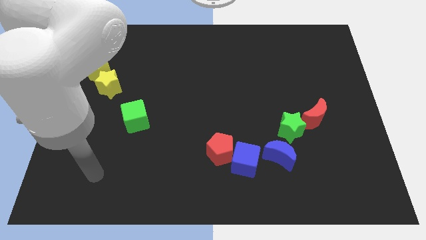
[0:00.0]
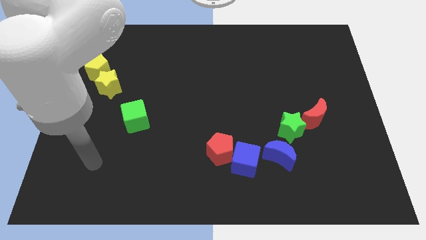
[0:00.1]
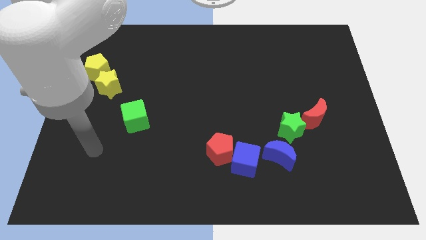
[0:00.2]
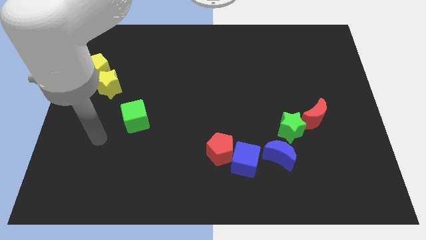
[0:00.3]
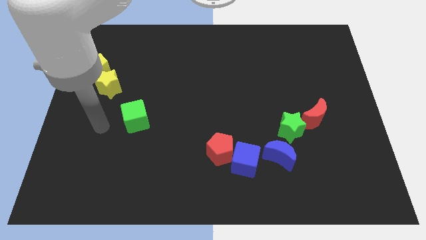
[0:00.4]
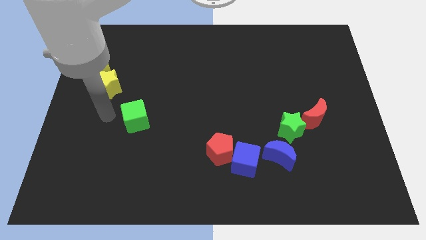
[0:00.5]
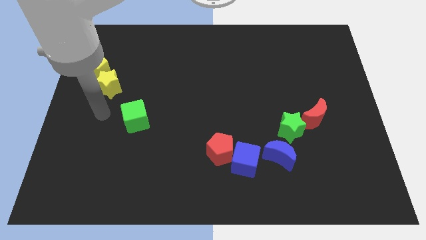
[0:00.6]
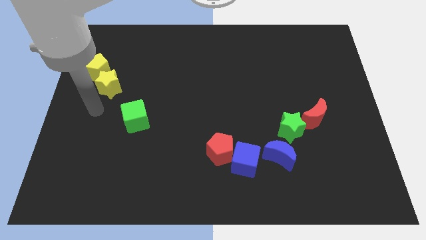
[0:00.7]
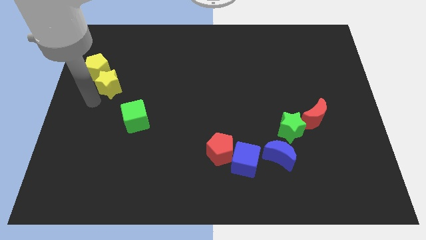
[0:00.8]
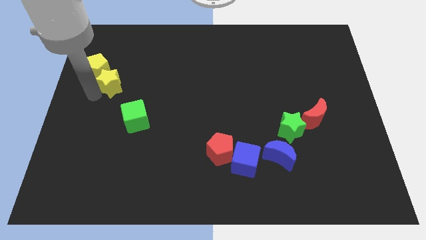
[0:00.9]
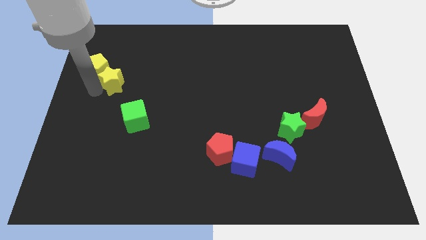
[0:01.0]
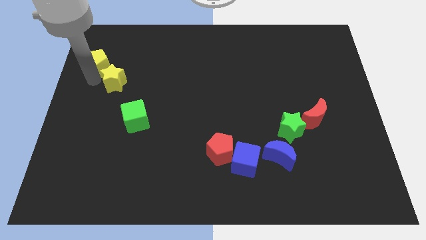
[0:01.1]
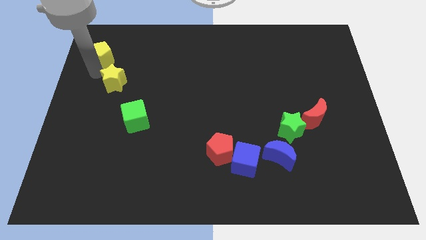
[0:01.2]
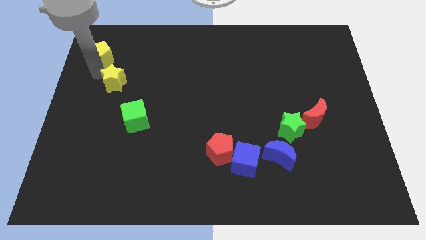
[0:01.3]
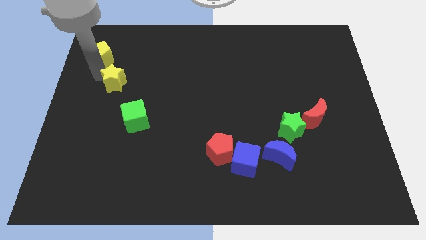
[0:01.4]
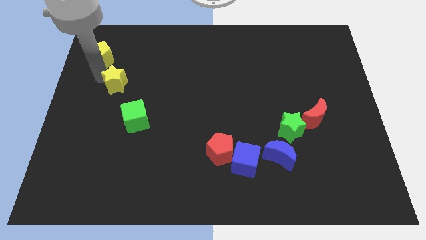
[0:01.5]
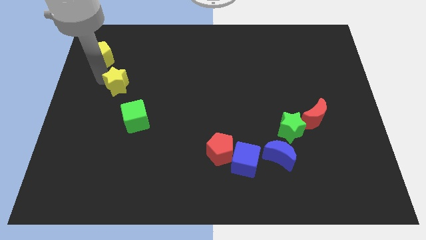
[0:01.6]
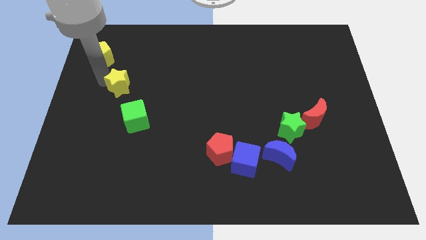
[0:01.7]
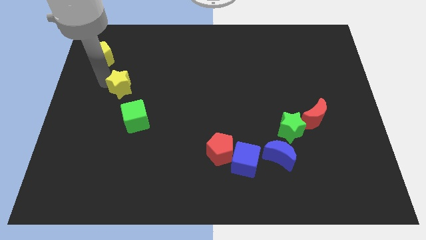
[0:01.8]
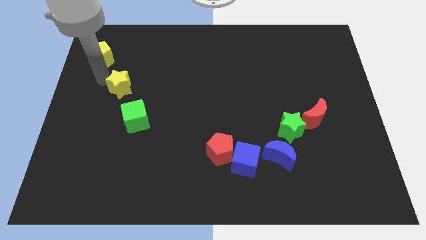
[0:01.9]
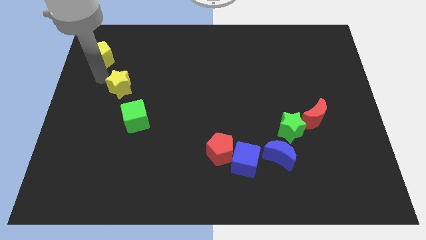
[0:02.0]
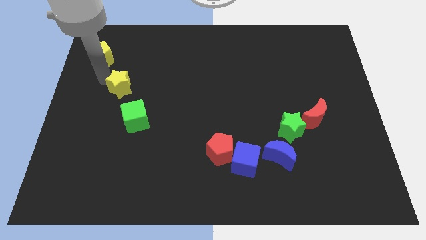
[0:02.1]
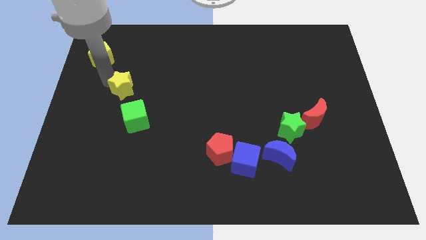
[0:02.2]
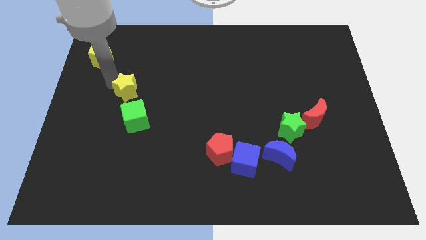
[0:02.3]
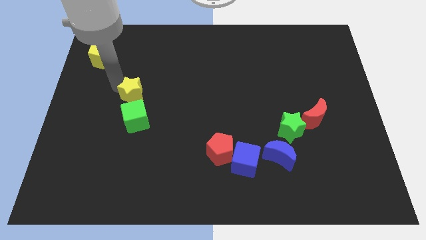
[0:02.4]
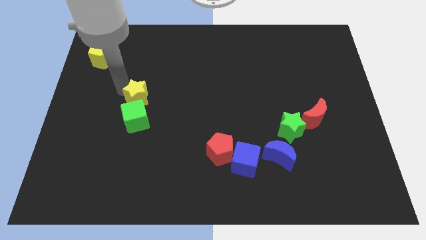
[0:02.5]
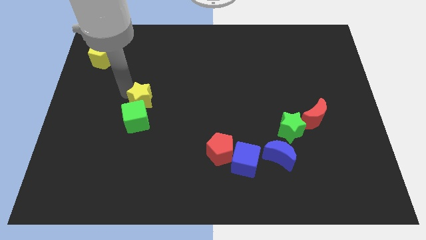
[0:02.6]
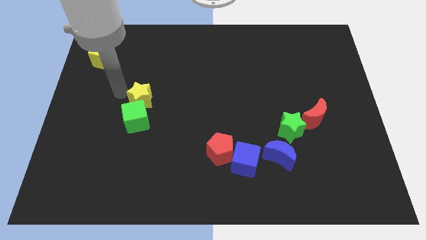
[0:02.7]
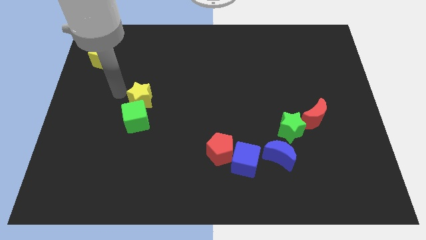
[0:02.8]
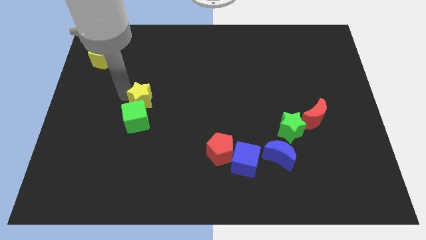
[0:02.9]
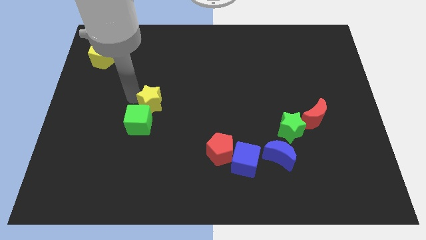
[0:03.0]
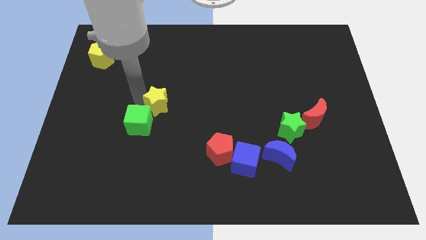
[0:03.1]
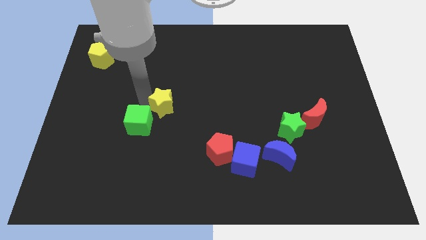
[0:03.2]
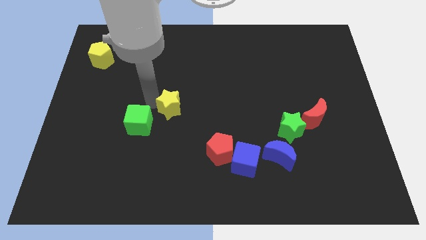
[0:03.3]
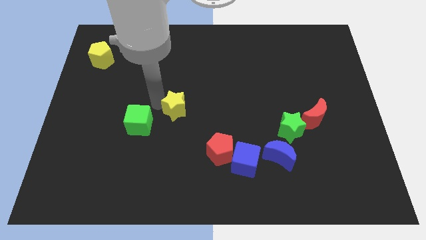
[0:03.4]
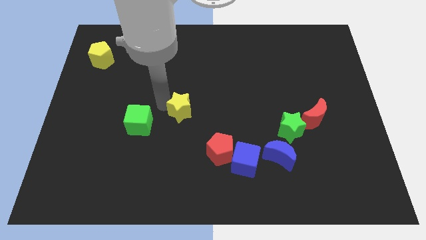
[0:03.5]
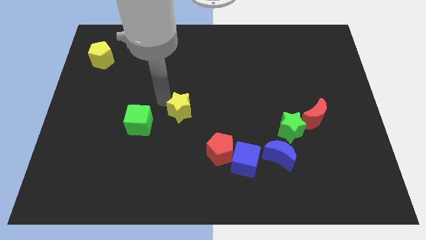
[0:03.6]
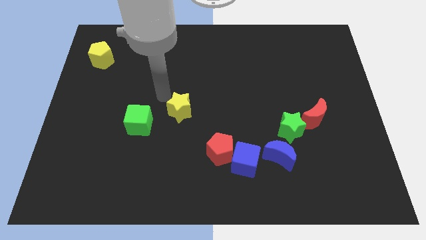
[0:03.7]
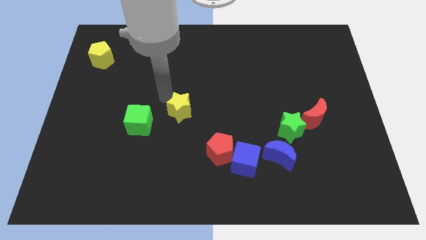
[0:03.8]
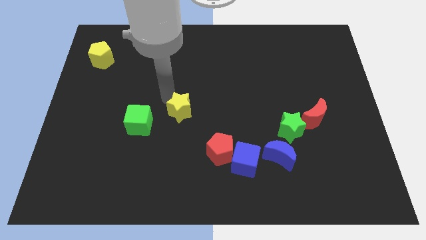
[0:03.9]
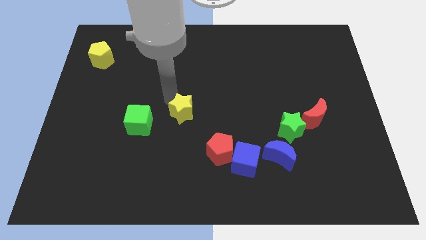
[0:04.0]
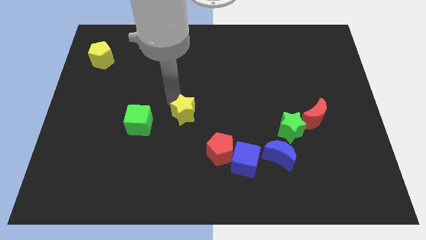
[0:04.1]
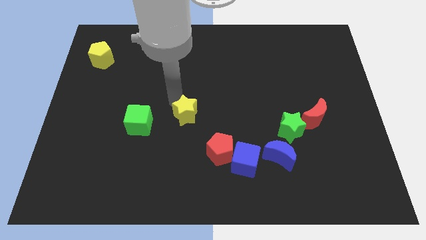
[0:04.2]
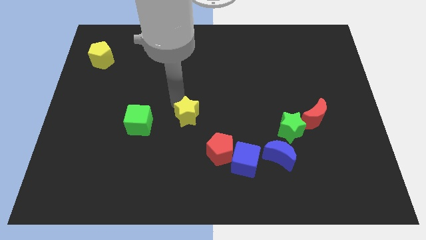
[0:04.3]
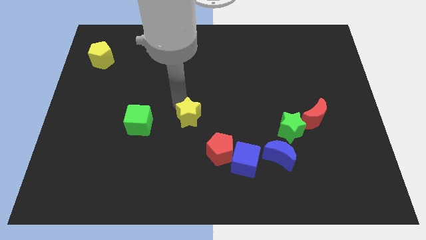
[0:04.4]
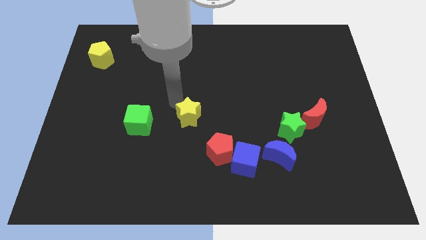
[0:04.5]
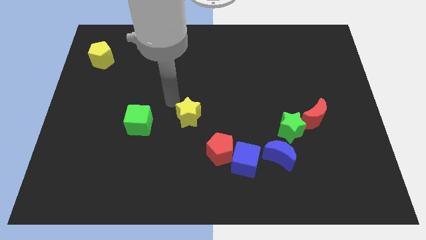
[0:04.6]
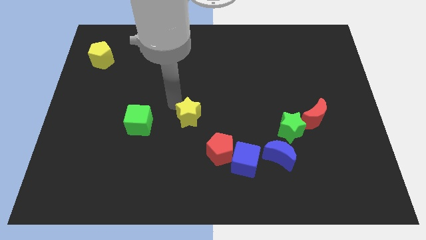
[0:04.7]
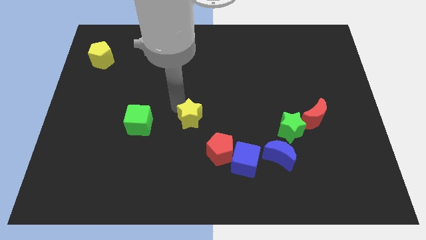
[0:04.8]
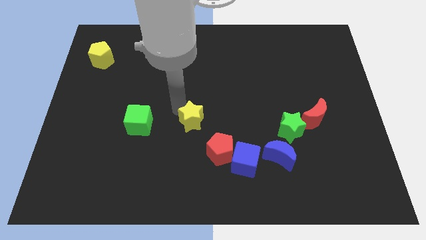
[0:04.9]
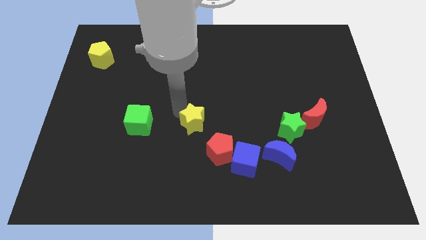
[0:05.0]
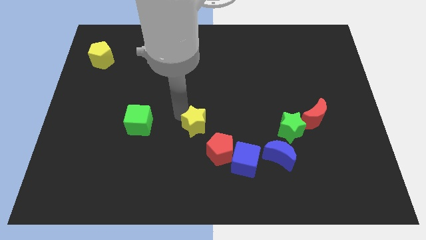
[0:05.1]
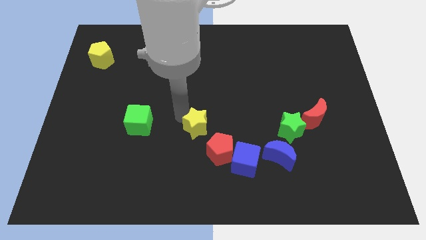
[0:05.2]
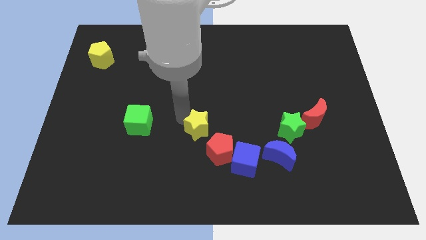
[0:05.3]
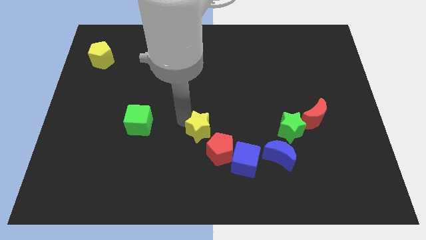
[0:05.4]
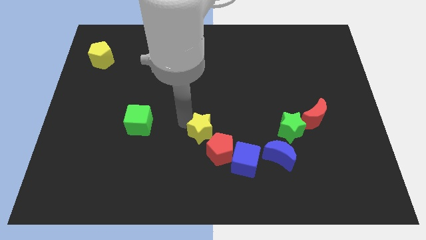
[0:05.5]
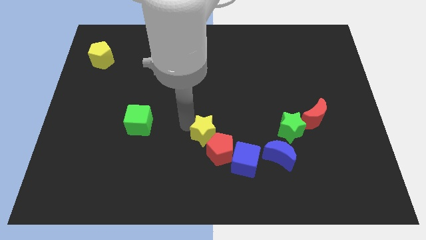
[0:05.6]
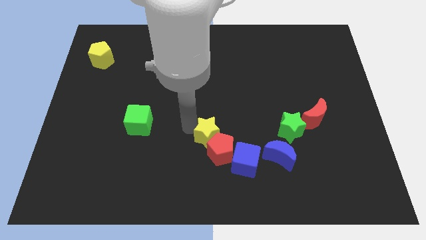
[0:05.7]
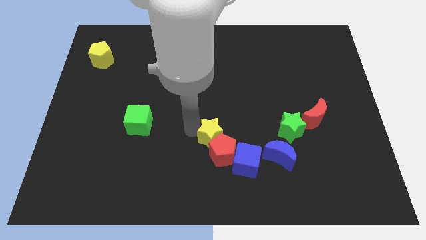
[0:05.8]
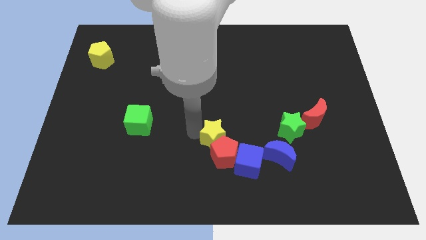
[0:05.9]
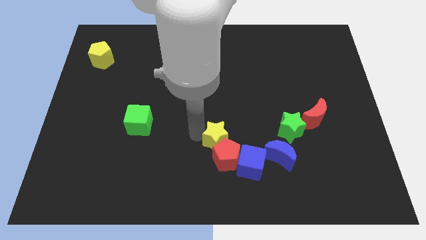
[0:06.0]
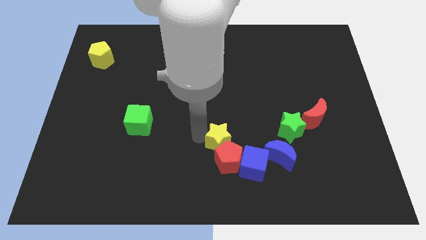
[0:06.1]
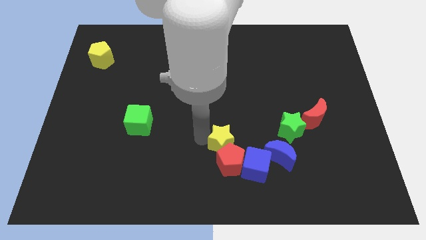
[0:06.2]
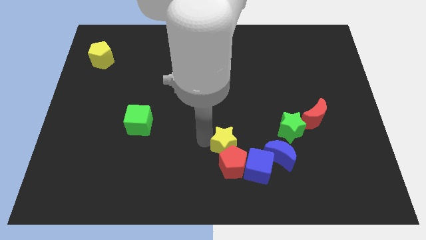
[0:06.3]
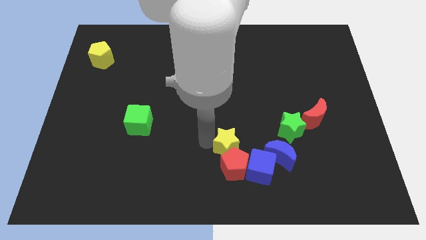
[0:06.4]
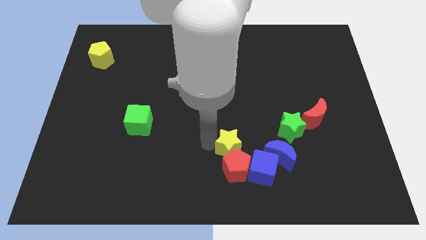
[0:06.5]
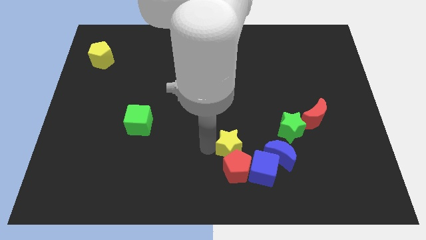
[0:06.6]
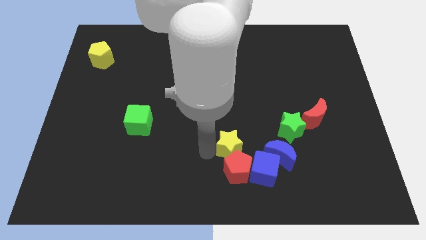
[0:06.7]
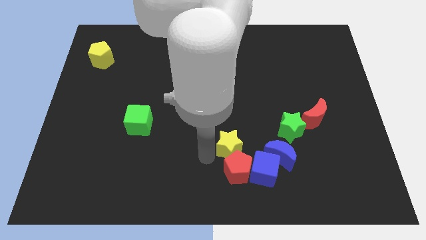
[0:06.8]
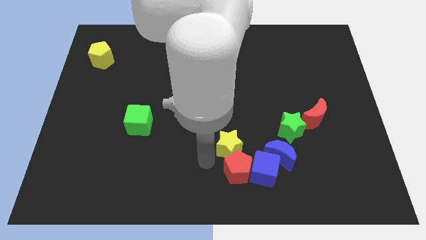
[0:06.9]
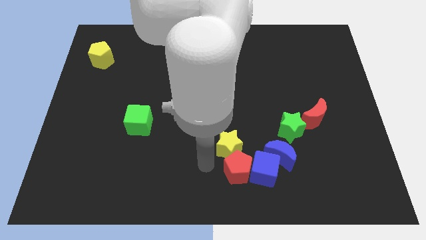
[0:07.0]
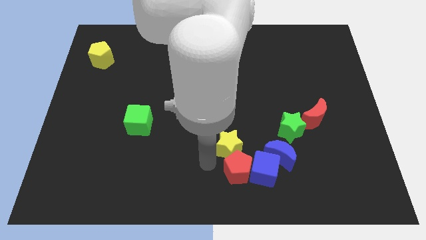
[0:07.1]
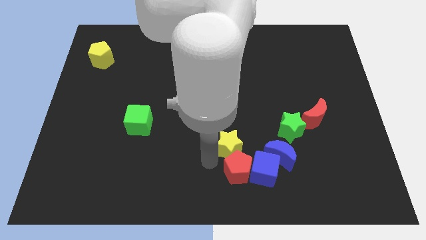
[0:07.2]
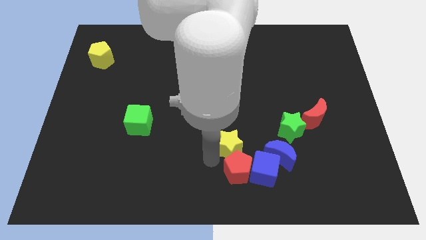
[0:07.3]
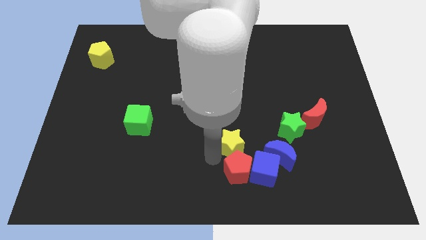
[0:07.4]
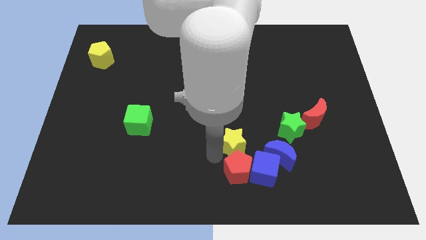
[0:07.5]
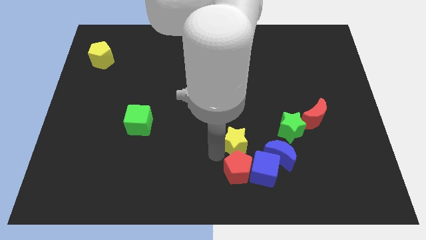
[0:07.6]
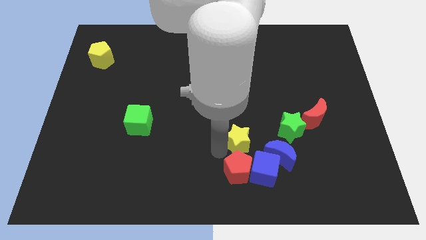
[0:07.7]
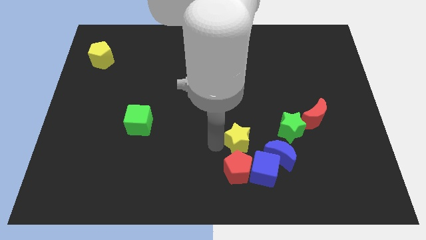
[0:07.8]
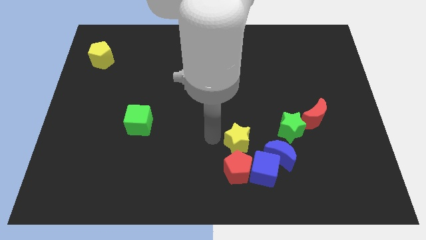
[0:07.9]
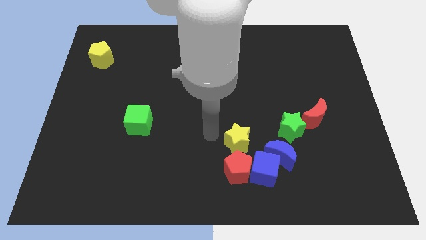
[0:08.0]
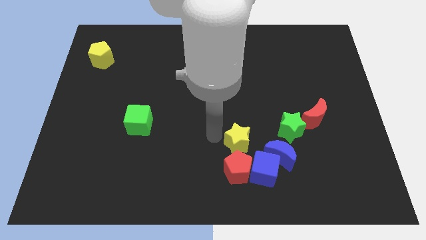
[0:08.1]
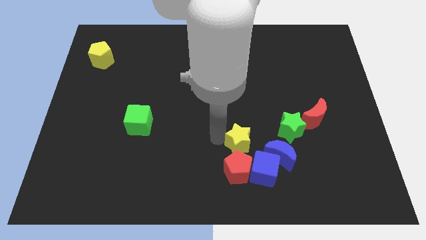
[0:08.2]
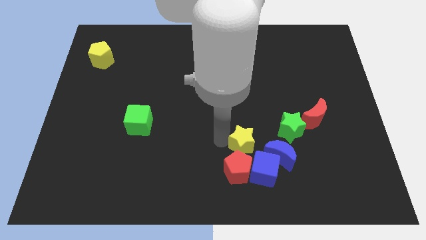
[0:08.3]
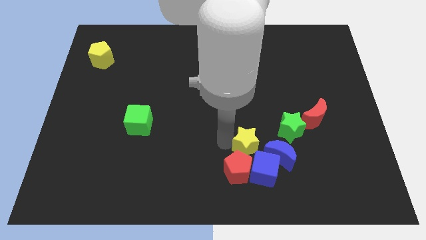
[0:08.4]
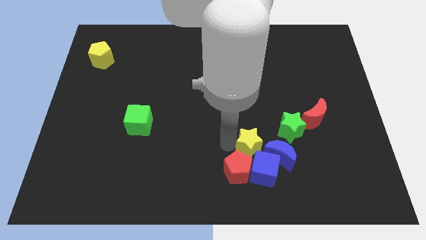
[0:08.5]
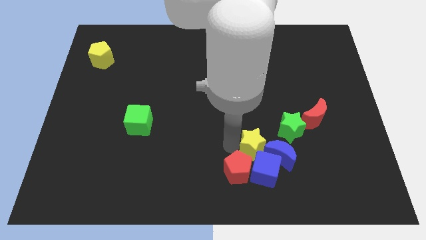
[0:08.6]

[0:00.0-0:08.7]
put the yellow star close to the blue moon
